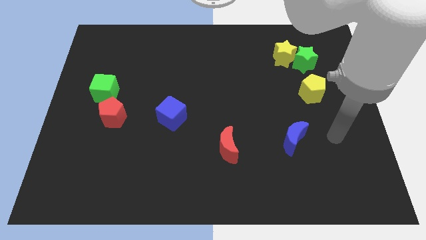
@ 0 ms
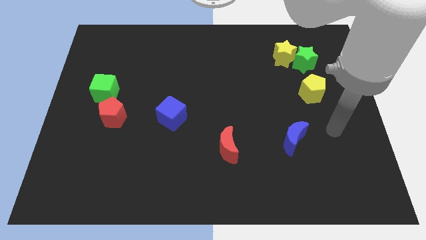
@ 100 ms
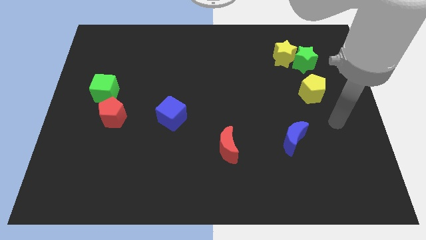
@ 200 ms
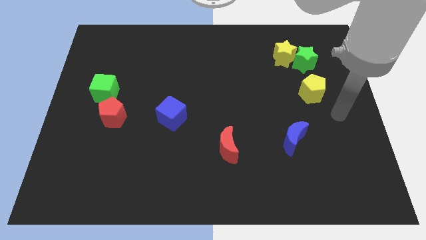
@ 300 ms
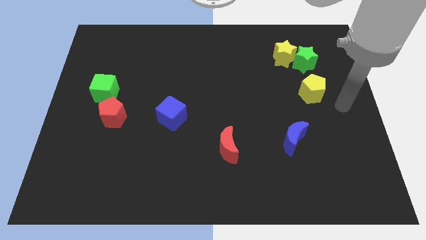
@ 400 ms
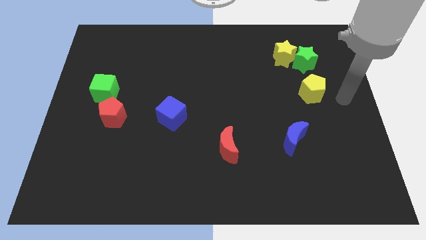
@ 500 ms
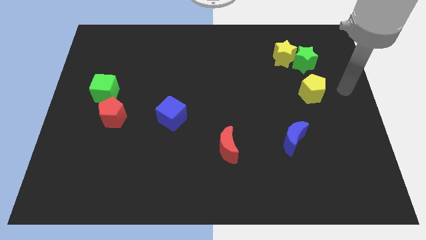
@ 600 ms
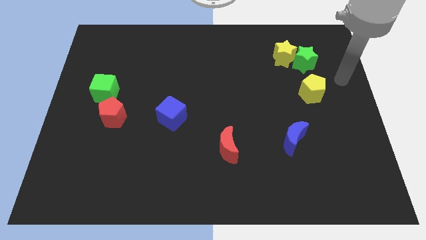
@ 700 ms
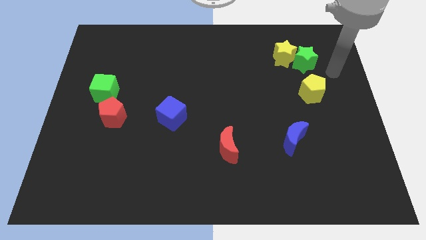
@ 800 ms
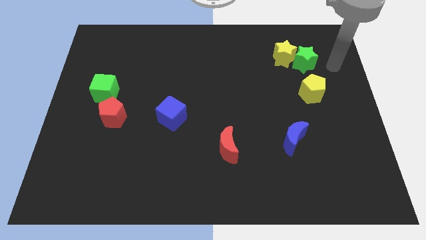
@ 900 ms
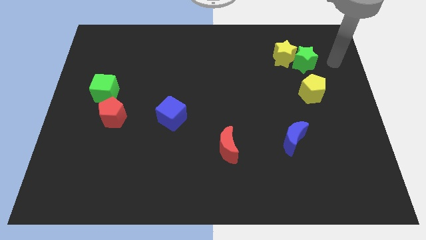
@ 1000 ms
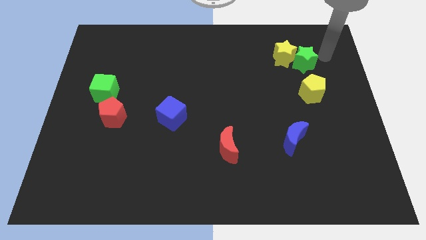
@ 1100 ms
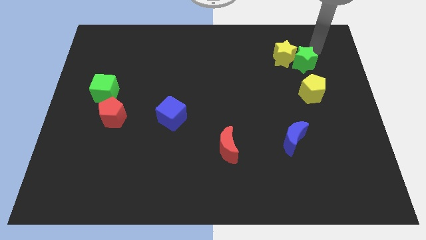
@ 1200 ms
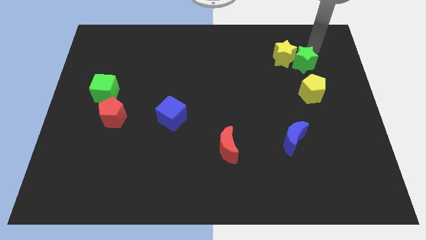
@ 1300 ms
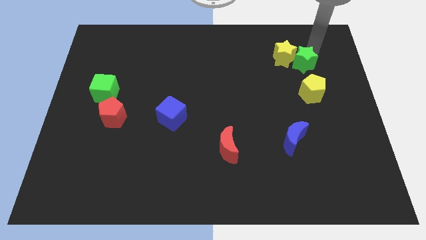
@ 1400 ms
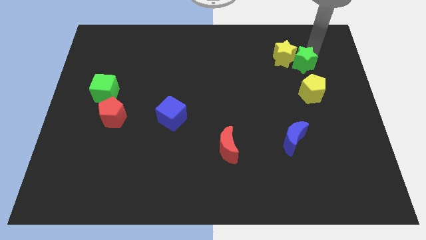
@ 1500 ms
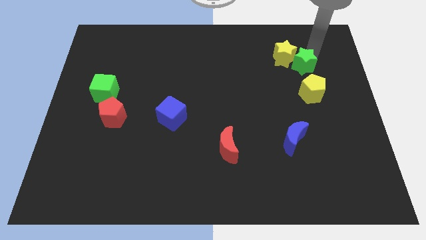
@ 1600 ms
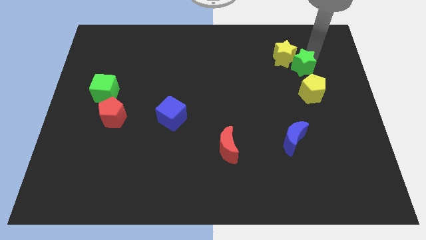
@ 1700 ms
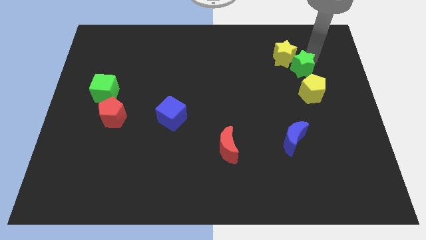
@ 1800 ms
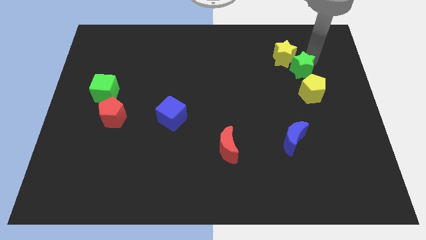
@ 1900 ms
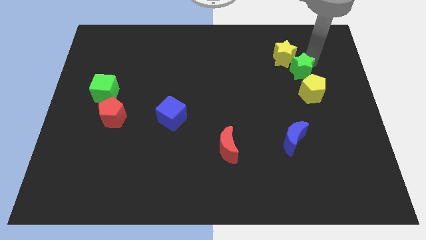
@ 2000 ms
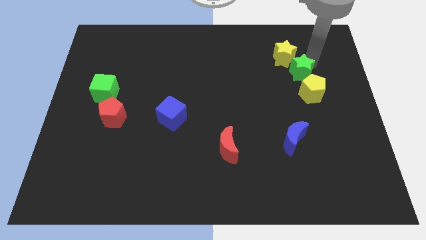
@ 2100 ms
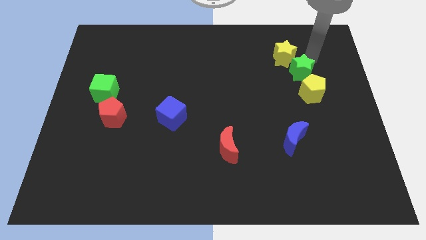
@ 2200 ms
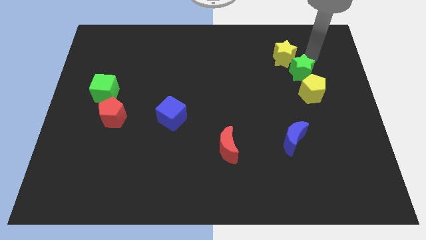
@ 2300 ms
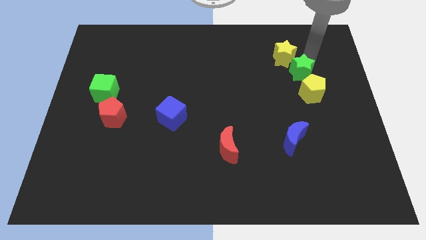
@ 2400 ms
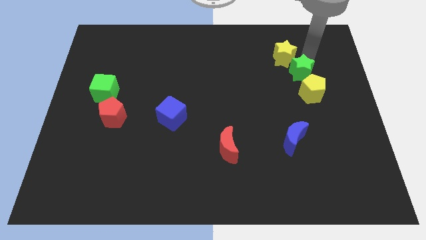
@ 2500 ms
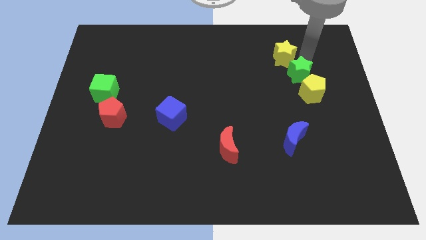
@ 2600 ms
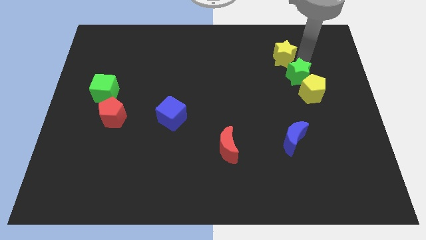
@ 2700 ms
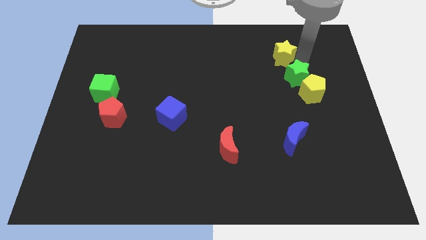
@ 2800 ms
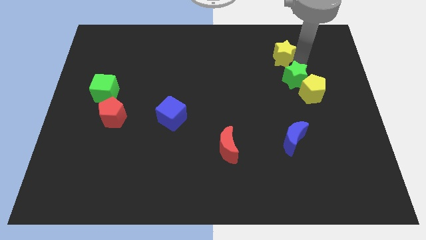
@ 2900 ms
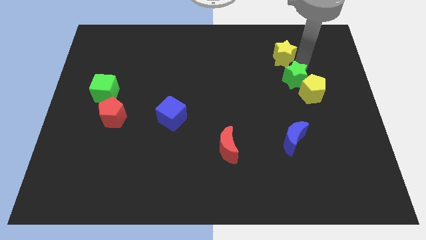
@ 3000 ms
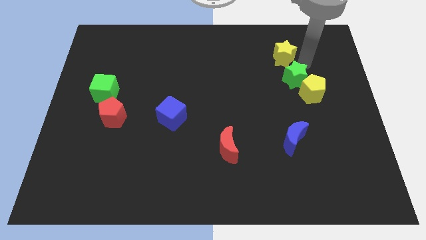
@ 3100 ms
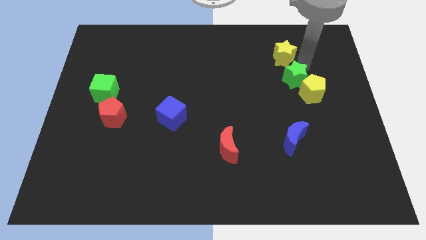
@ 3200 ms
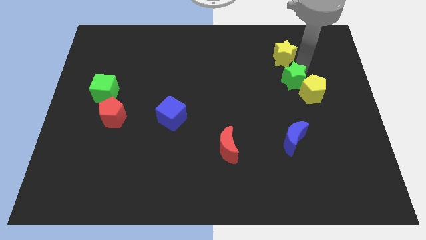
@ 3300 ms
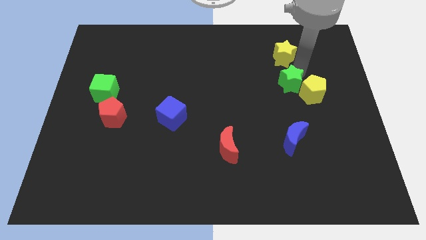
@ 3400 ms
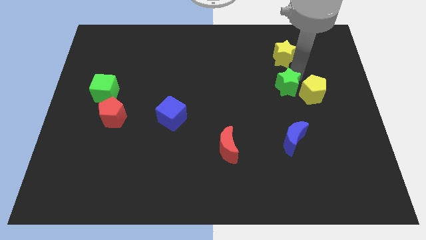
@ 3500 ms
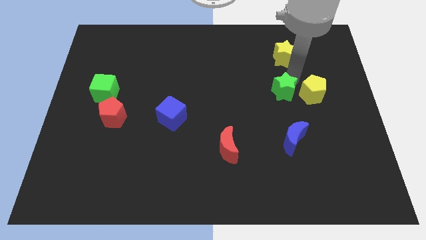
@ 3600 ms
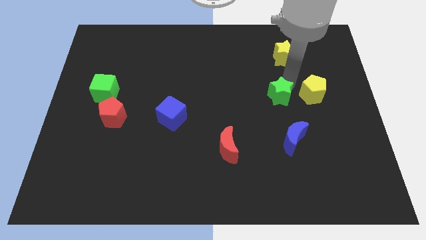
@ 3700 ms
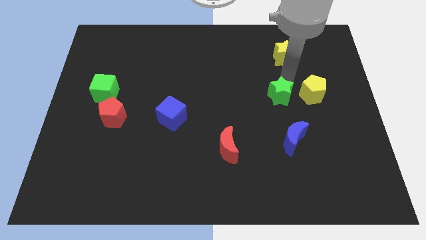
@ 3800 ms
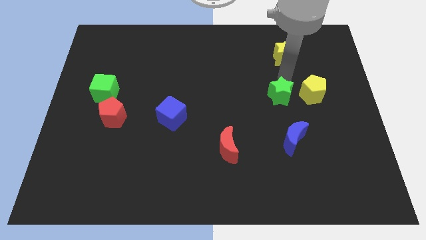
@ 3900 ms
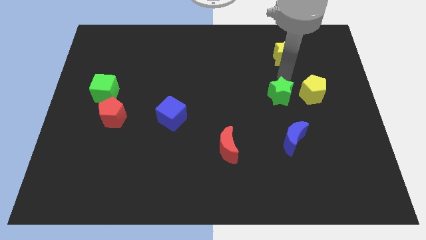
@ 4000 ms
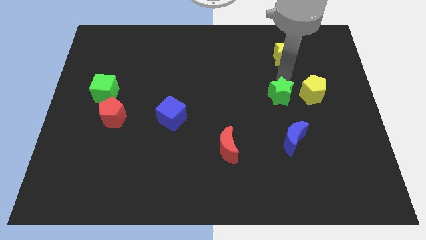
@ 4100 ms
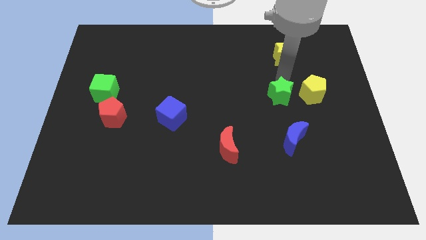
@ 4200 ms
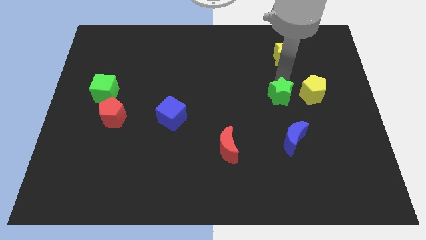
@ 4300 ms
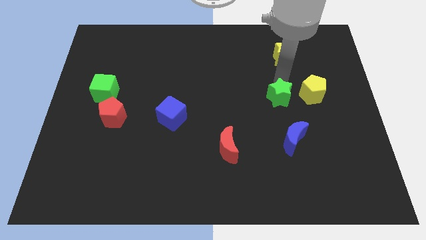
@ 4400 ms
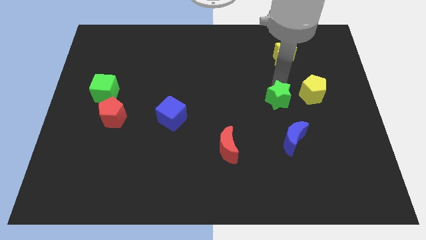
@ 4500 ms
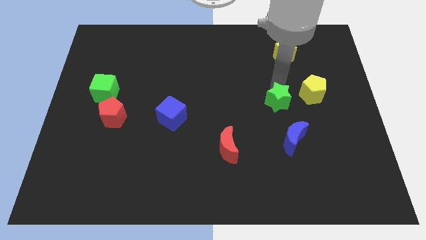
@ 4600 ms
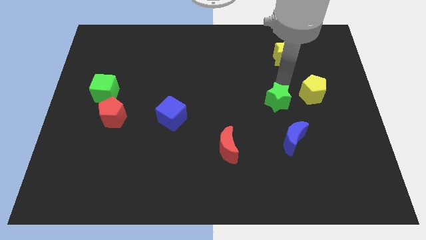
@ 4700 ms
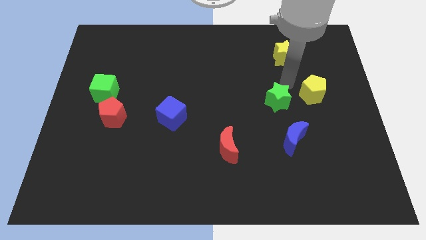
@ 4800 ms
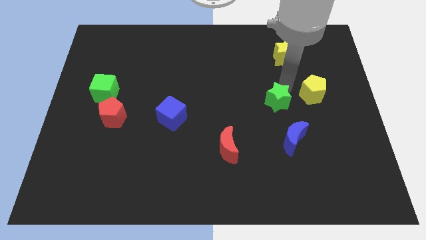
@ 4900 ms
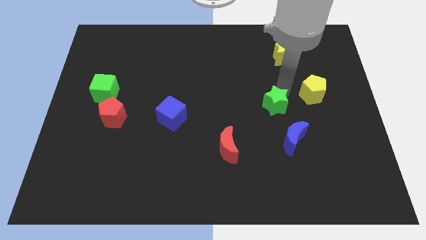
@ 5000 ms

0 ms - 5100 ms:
slide the green star to the top left of the blue moon

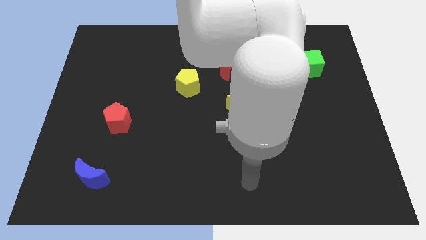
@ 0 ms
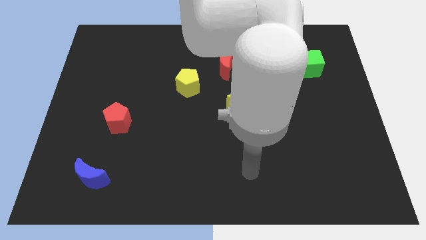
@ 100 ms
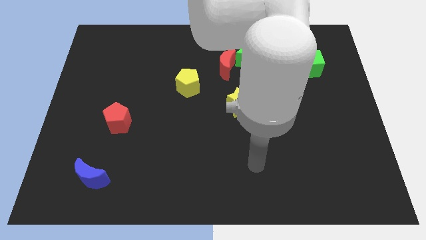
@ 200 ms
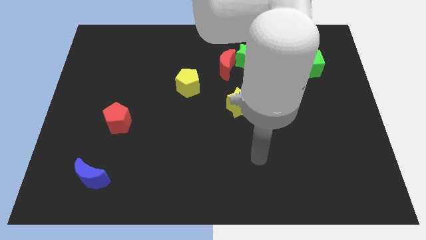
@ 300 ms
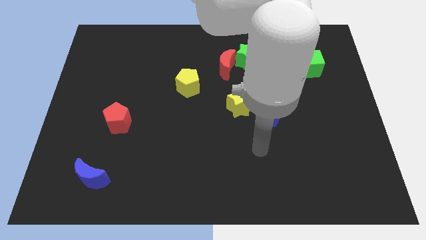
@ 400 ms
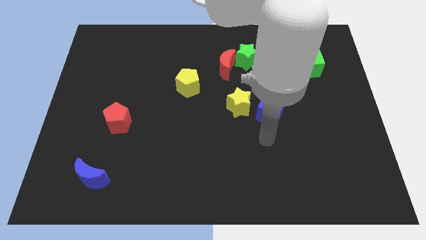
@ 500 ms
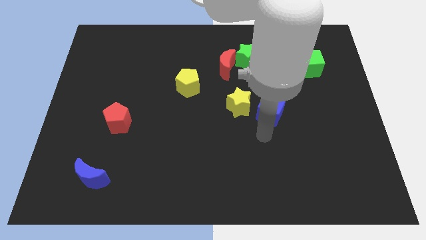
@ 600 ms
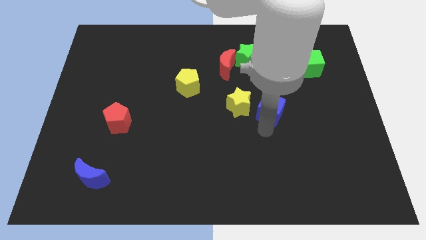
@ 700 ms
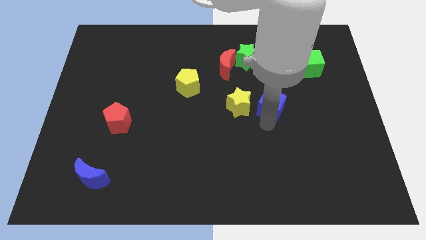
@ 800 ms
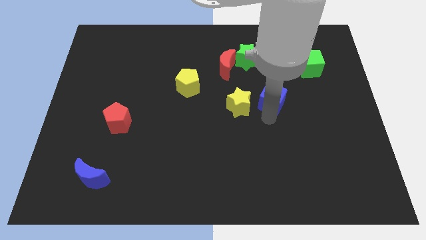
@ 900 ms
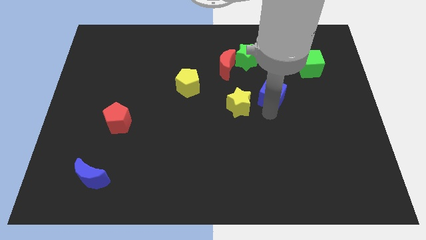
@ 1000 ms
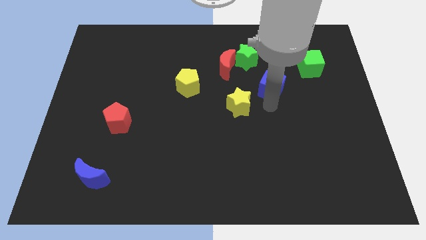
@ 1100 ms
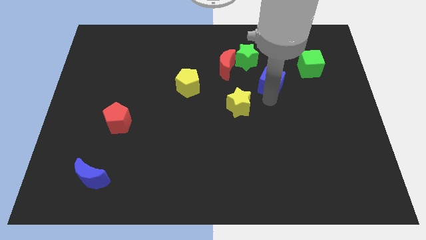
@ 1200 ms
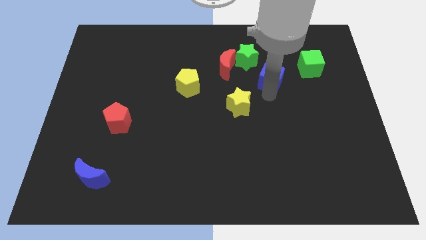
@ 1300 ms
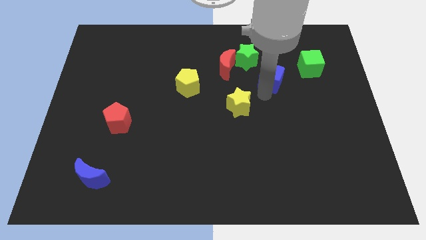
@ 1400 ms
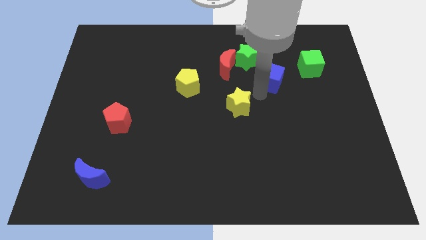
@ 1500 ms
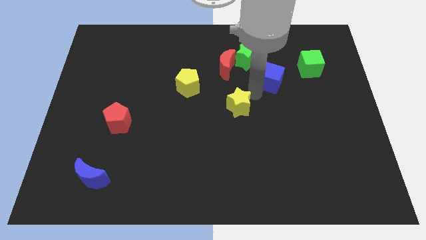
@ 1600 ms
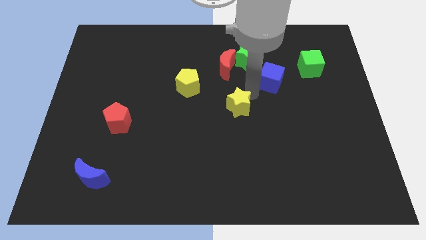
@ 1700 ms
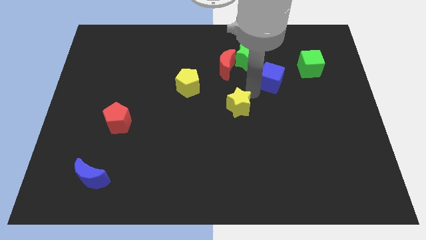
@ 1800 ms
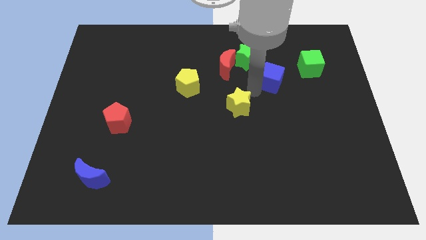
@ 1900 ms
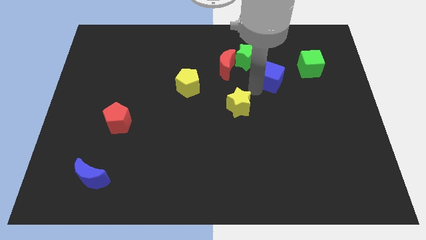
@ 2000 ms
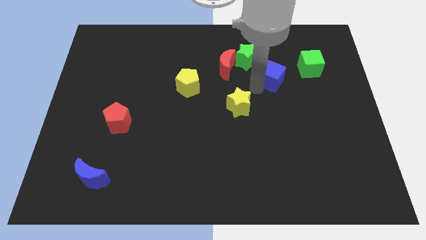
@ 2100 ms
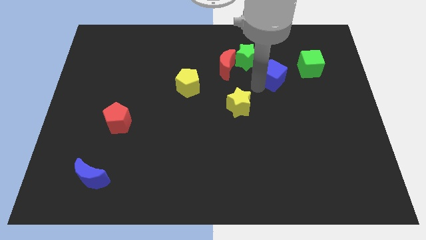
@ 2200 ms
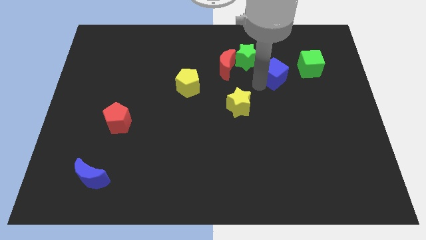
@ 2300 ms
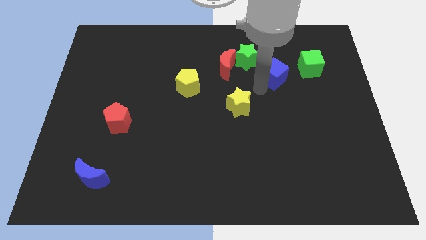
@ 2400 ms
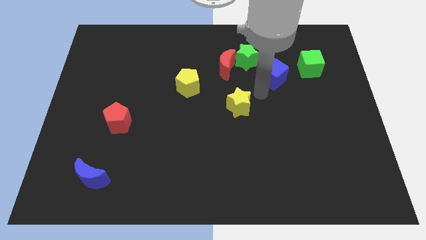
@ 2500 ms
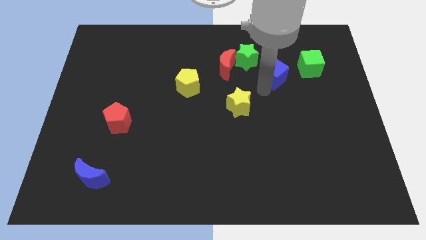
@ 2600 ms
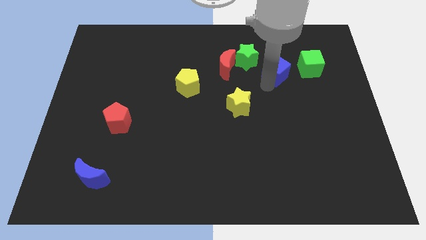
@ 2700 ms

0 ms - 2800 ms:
move the blue cube right of the green star
